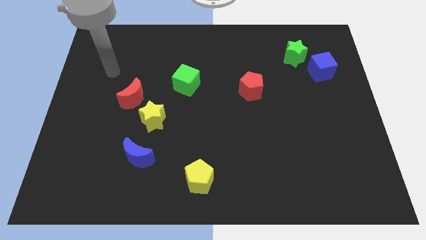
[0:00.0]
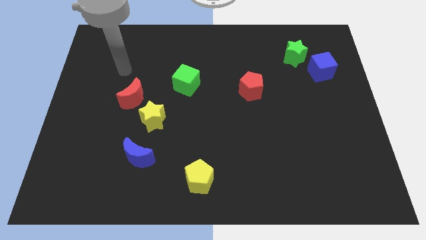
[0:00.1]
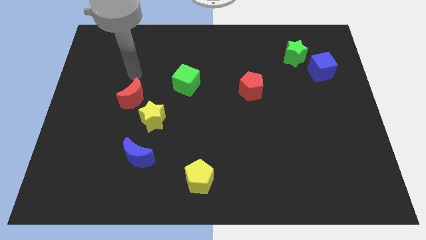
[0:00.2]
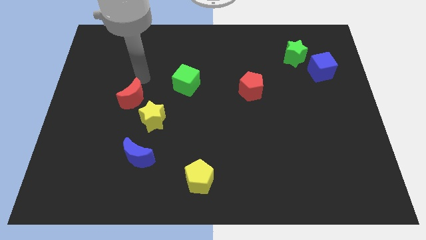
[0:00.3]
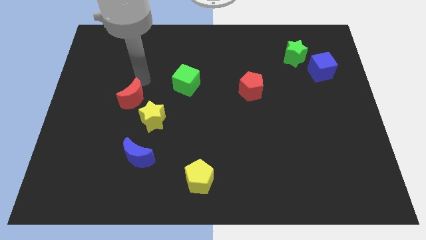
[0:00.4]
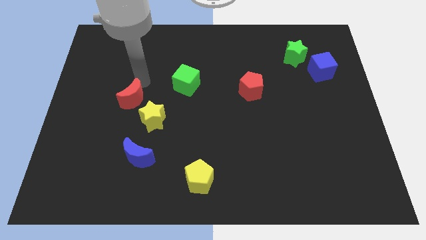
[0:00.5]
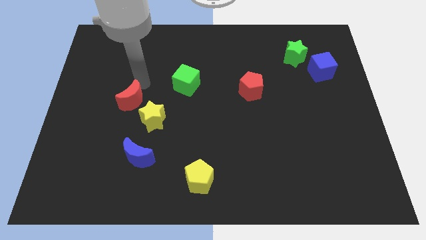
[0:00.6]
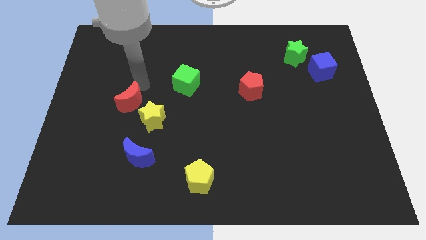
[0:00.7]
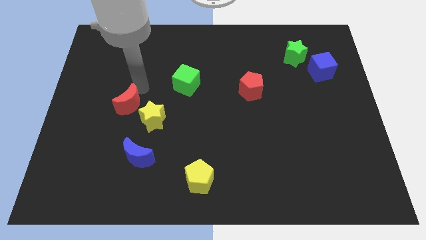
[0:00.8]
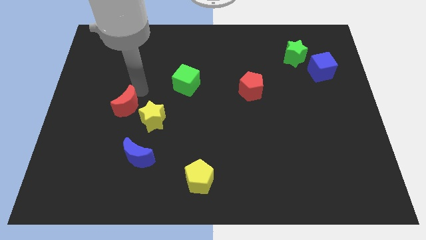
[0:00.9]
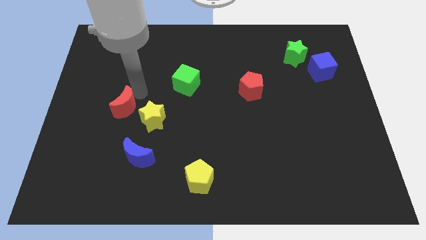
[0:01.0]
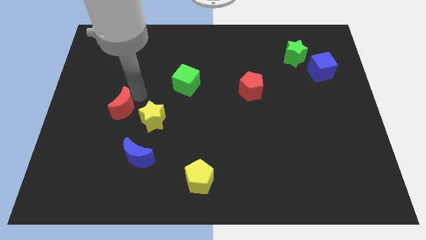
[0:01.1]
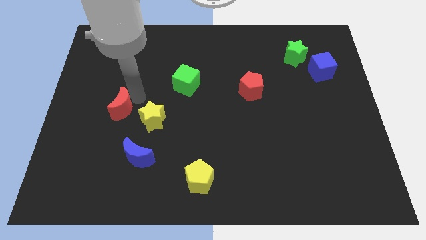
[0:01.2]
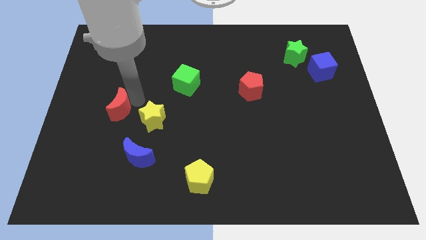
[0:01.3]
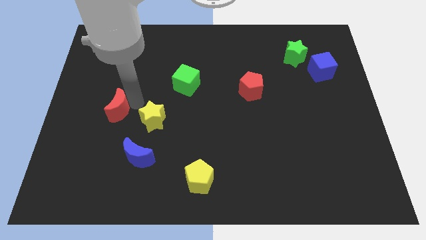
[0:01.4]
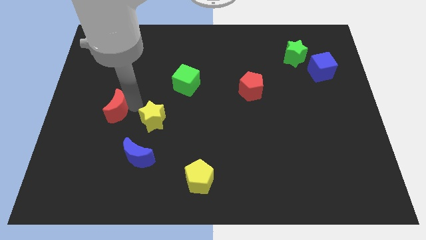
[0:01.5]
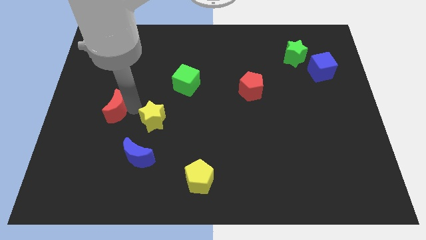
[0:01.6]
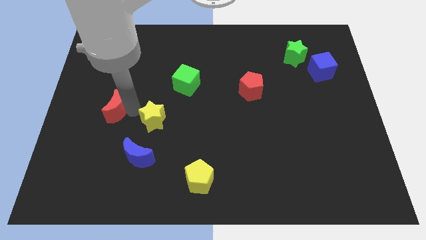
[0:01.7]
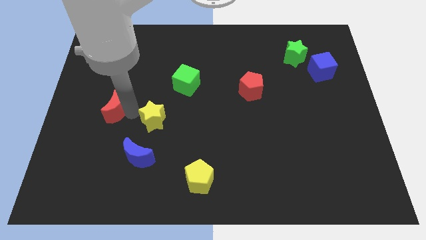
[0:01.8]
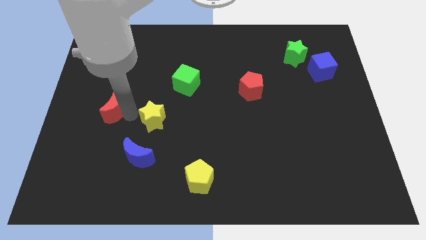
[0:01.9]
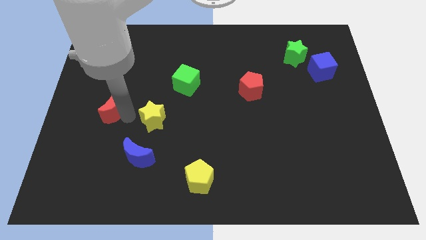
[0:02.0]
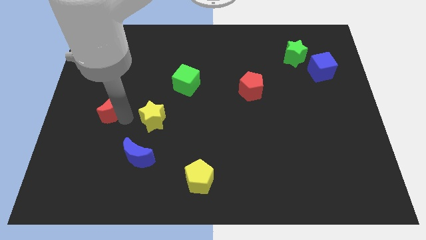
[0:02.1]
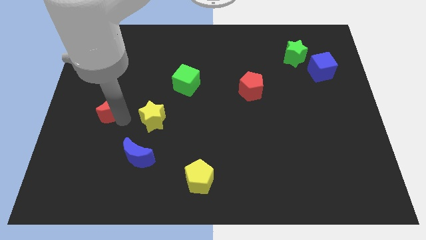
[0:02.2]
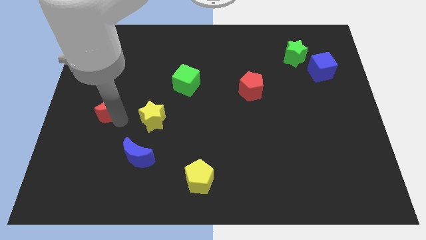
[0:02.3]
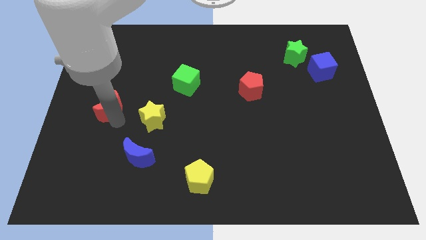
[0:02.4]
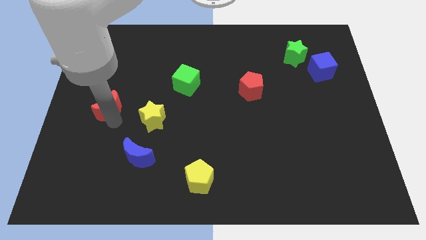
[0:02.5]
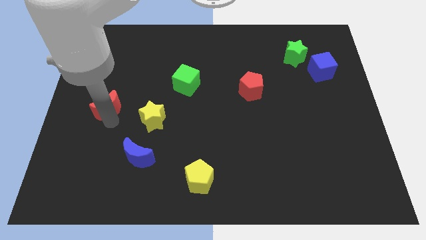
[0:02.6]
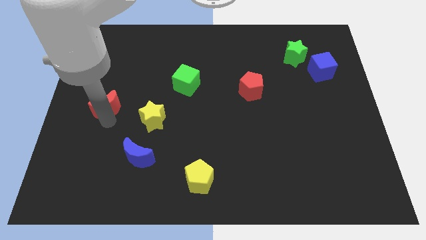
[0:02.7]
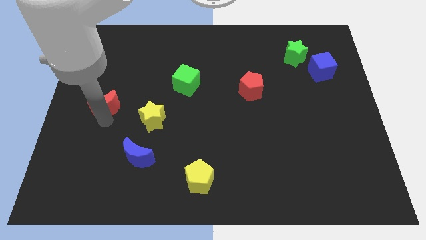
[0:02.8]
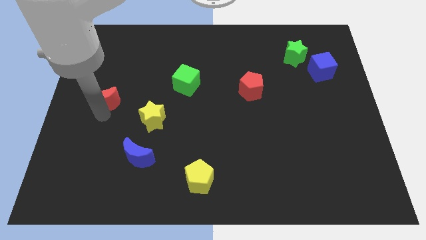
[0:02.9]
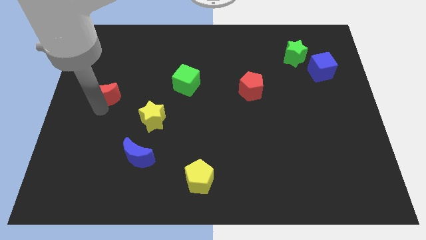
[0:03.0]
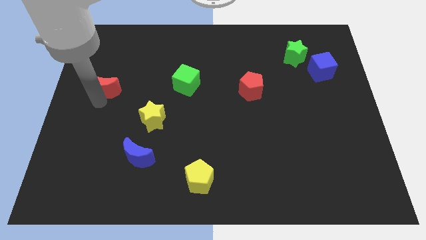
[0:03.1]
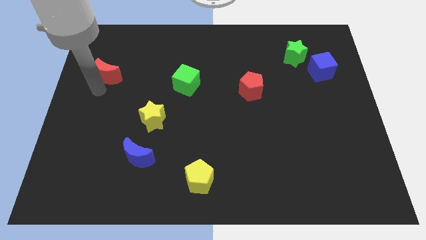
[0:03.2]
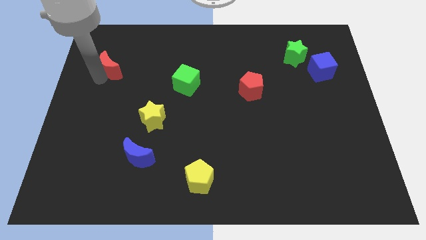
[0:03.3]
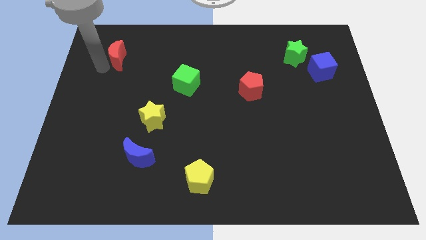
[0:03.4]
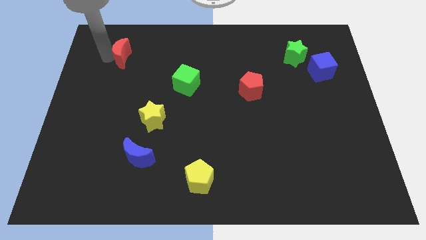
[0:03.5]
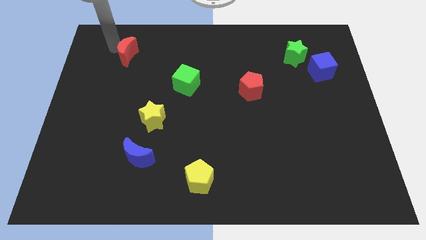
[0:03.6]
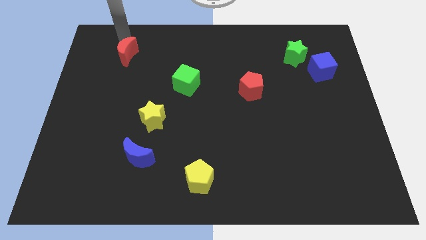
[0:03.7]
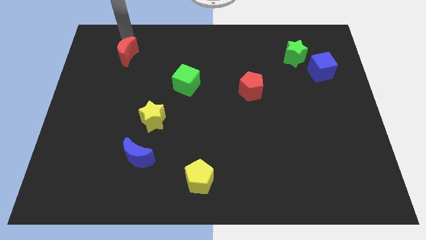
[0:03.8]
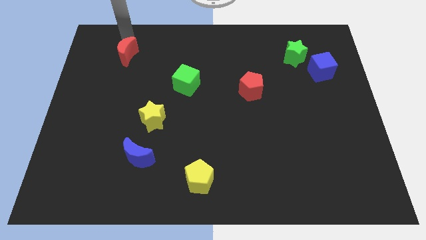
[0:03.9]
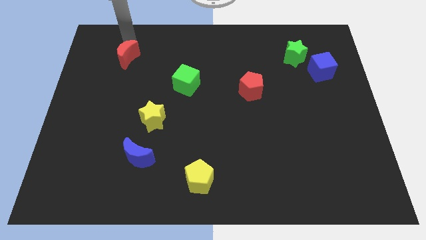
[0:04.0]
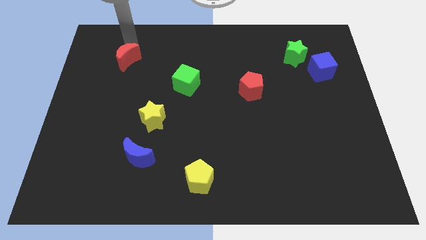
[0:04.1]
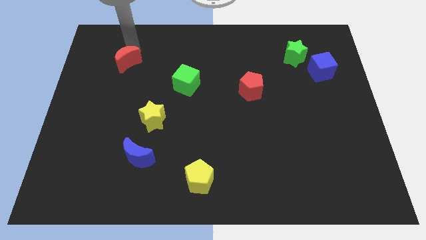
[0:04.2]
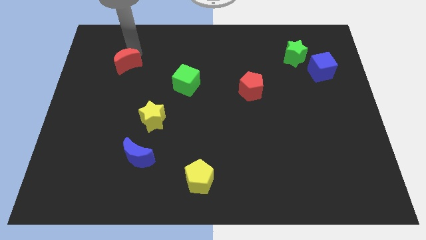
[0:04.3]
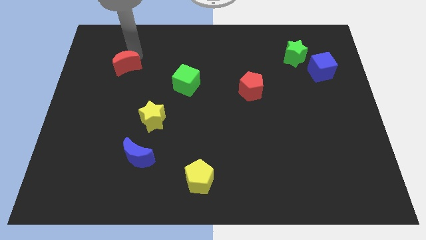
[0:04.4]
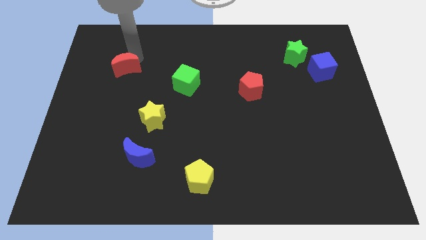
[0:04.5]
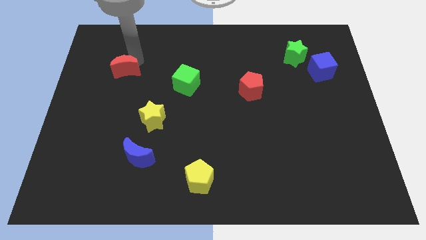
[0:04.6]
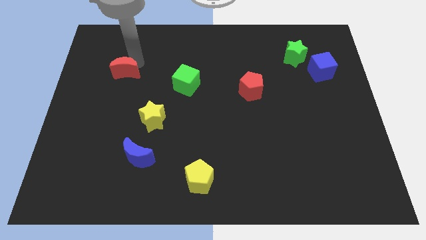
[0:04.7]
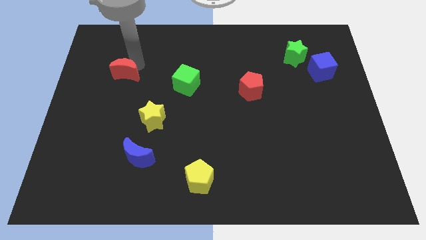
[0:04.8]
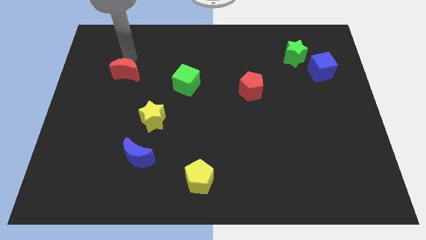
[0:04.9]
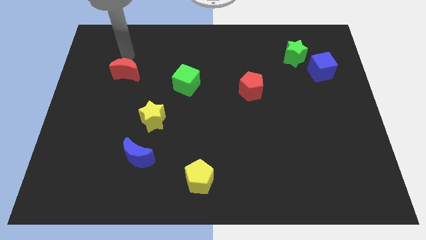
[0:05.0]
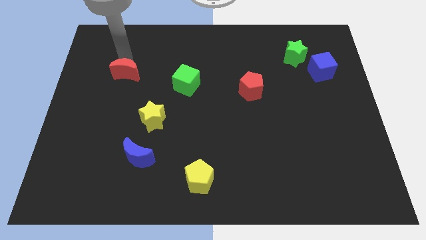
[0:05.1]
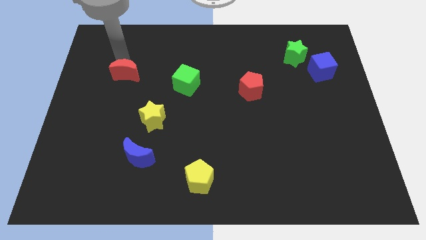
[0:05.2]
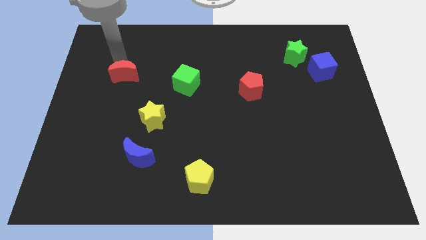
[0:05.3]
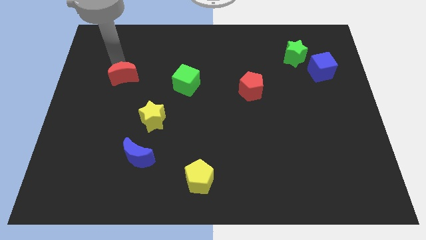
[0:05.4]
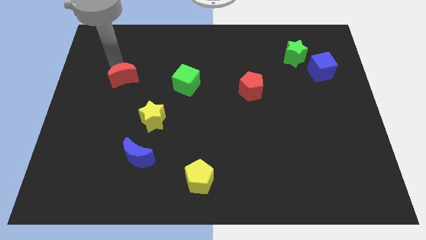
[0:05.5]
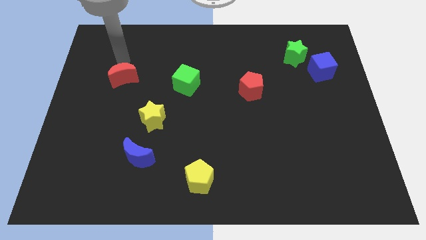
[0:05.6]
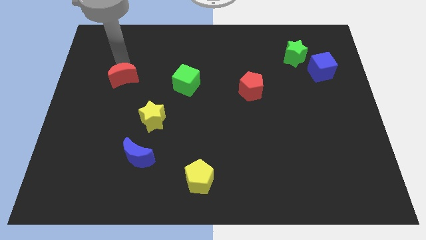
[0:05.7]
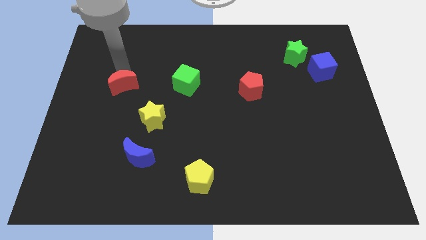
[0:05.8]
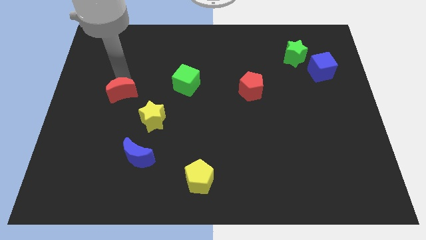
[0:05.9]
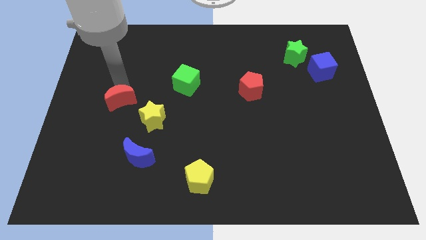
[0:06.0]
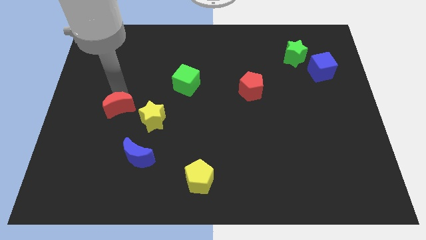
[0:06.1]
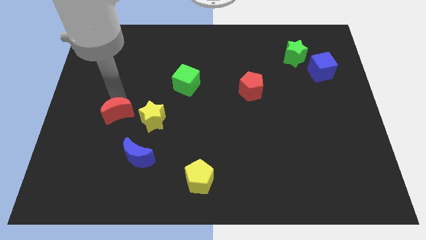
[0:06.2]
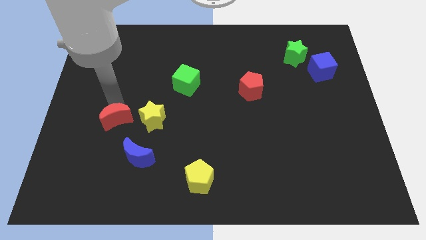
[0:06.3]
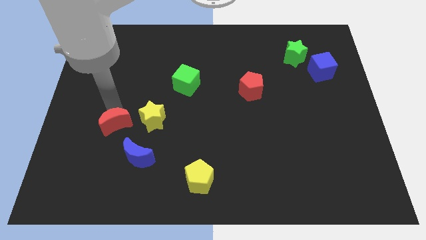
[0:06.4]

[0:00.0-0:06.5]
slide the red moon downwards somewhat

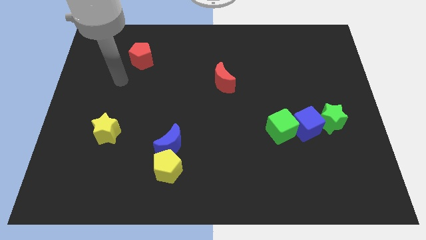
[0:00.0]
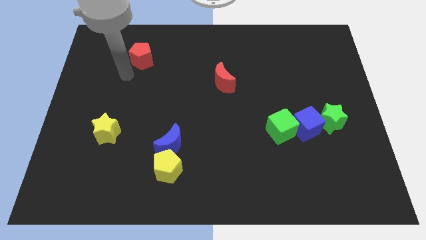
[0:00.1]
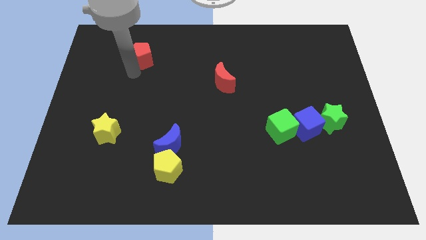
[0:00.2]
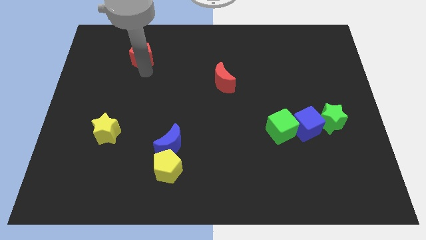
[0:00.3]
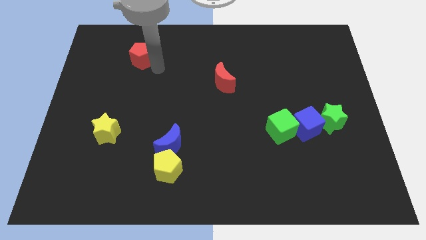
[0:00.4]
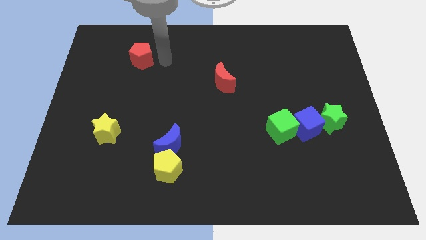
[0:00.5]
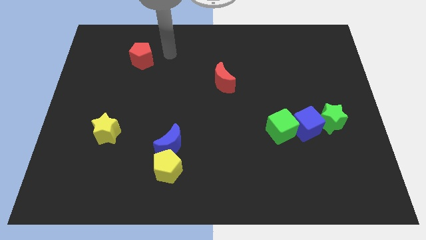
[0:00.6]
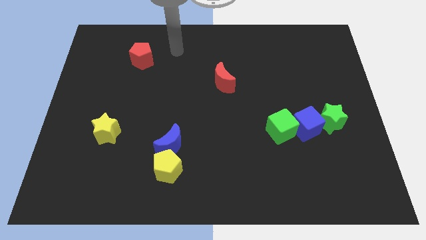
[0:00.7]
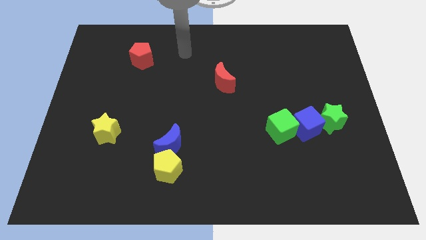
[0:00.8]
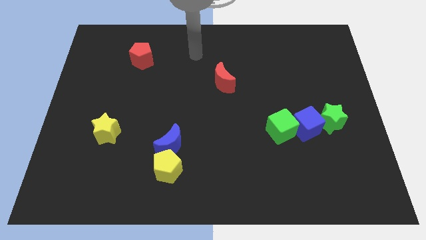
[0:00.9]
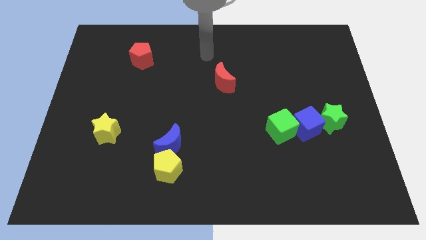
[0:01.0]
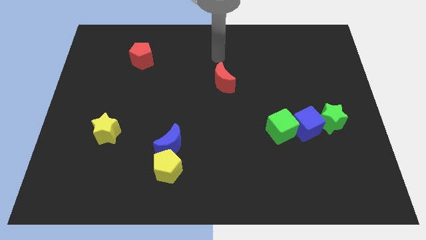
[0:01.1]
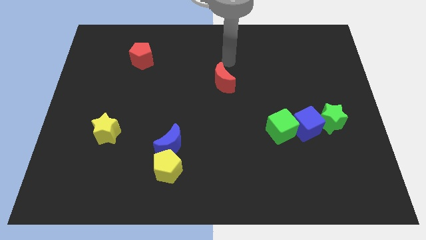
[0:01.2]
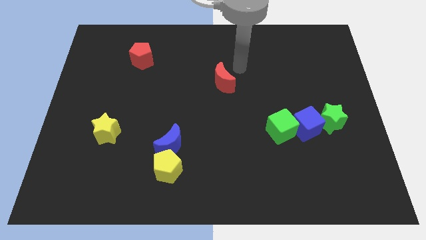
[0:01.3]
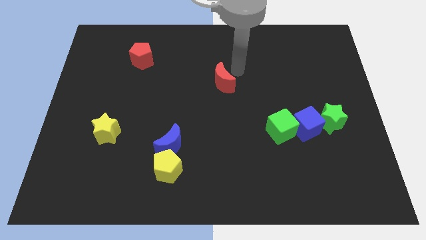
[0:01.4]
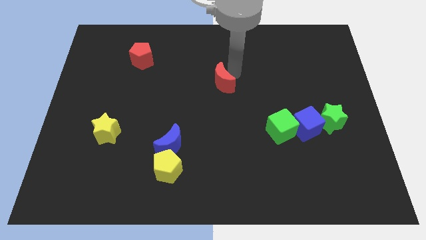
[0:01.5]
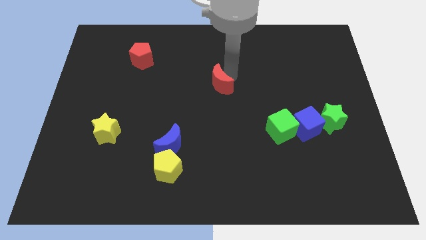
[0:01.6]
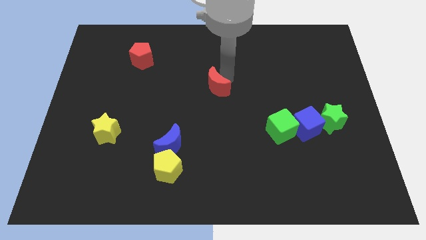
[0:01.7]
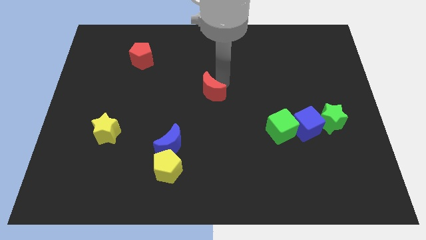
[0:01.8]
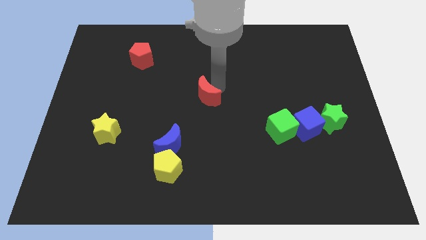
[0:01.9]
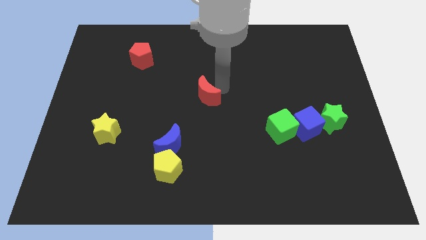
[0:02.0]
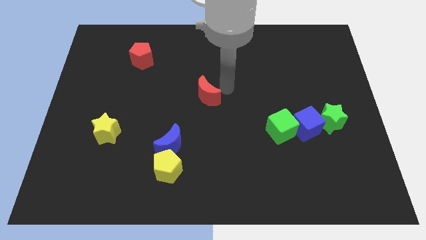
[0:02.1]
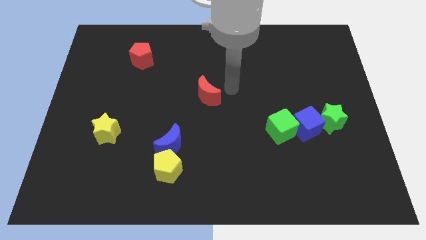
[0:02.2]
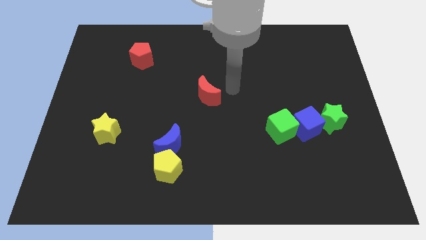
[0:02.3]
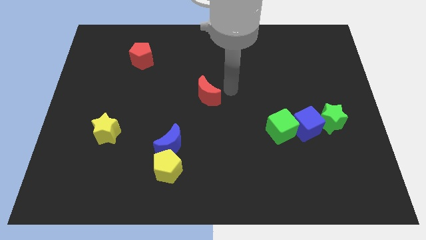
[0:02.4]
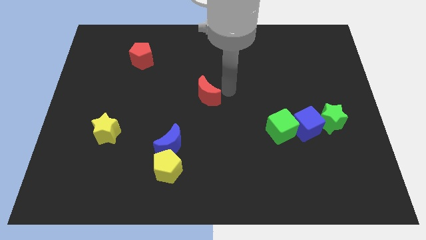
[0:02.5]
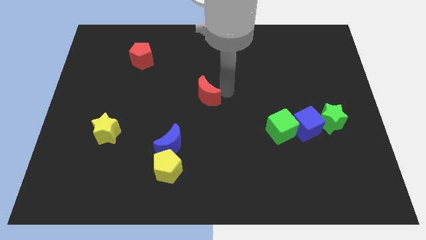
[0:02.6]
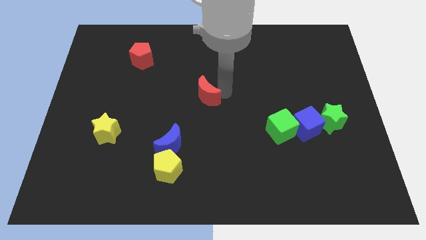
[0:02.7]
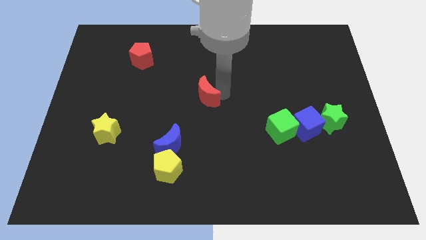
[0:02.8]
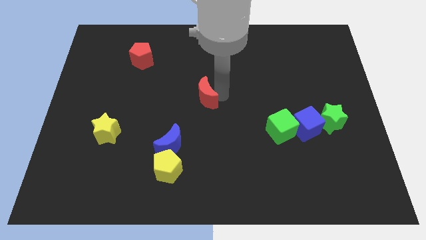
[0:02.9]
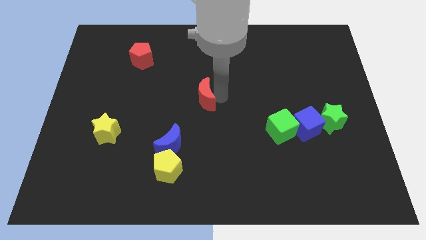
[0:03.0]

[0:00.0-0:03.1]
move the red moon a little downwards and then to the left
